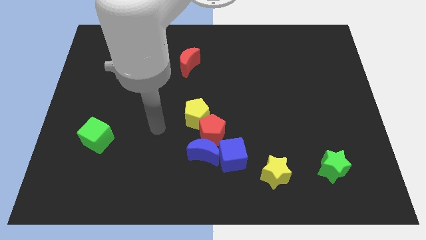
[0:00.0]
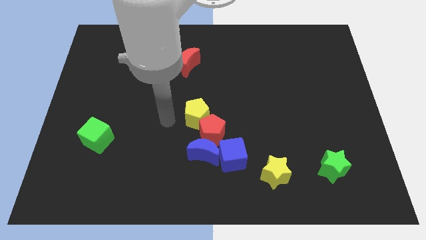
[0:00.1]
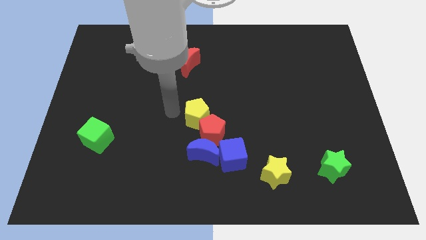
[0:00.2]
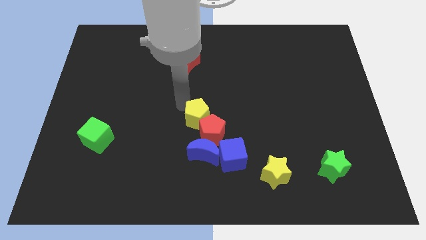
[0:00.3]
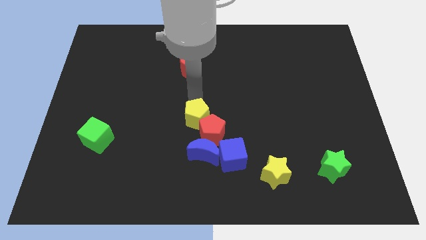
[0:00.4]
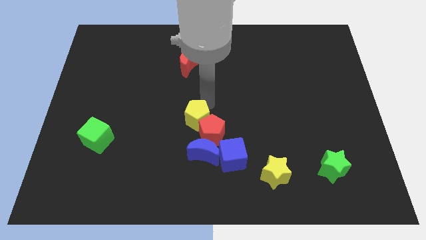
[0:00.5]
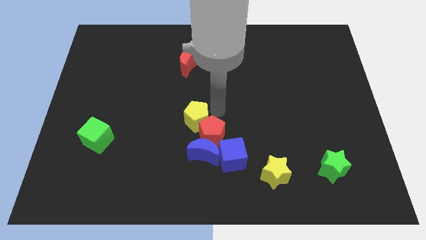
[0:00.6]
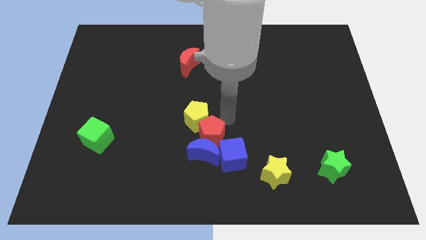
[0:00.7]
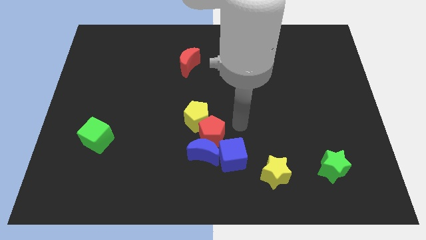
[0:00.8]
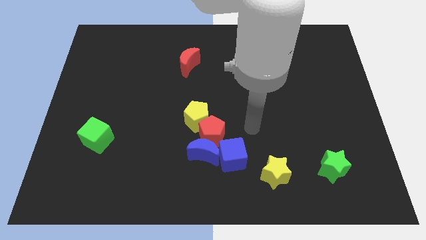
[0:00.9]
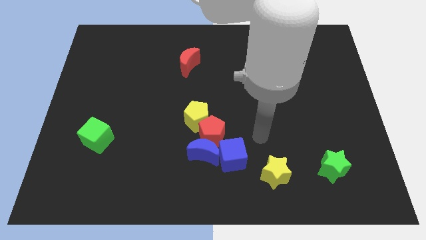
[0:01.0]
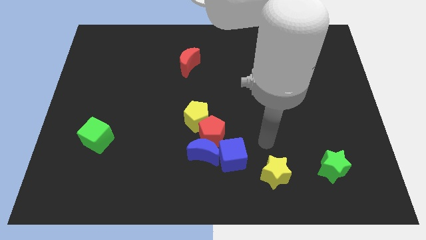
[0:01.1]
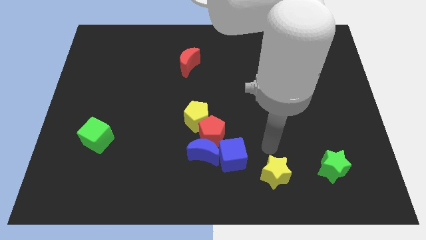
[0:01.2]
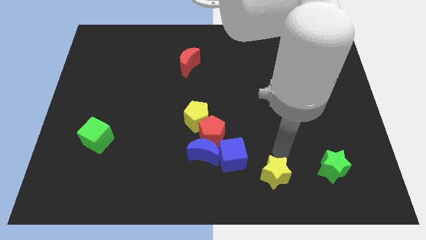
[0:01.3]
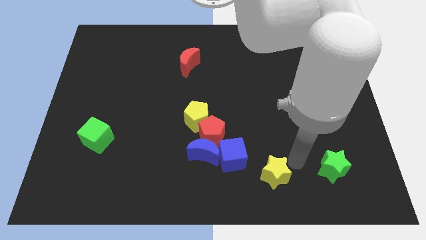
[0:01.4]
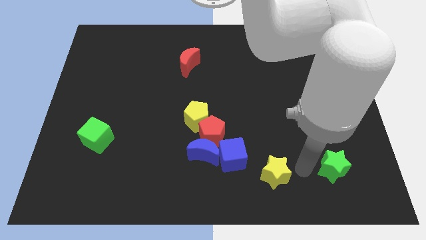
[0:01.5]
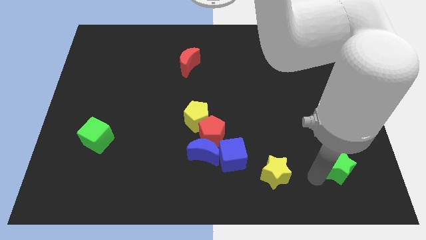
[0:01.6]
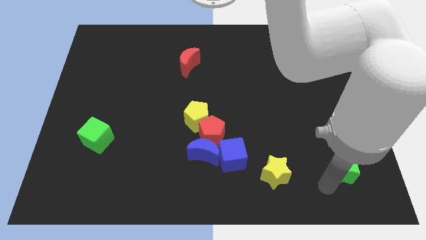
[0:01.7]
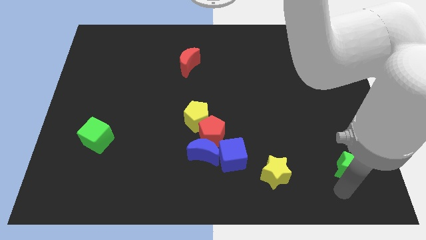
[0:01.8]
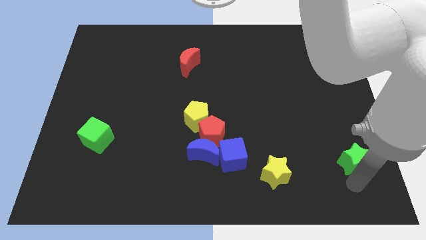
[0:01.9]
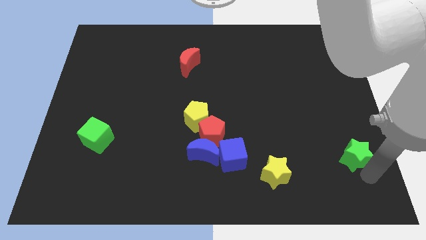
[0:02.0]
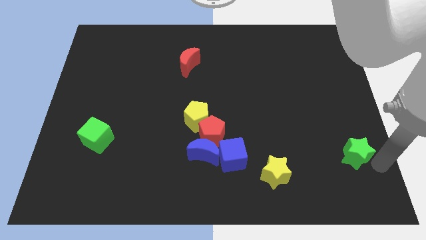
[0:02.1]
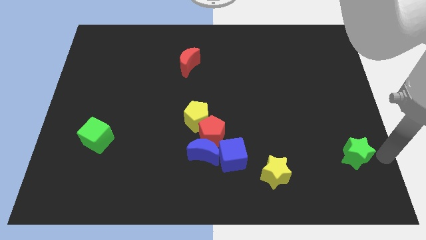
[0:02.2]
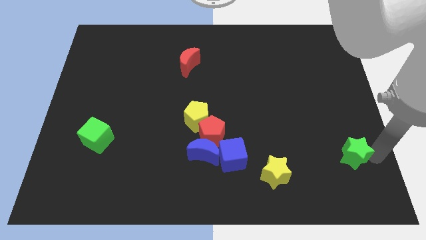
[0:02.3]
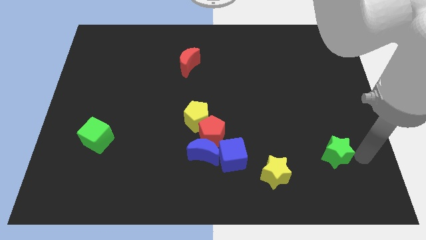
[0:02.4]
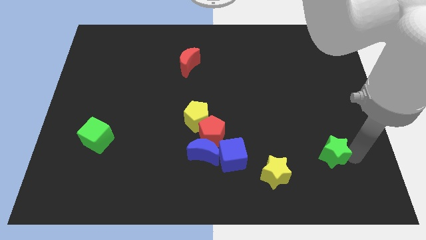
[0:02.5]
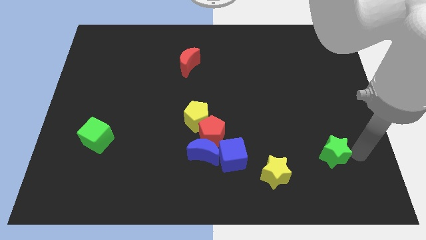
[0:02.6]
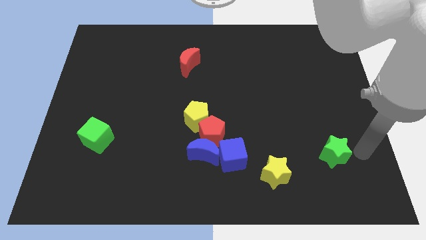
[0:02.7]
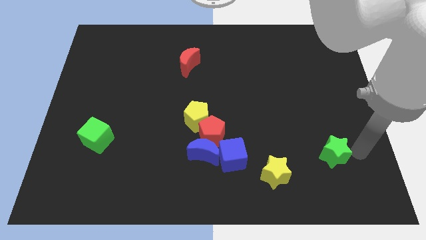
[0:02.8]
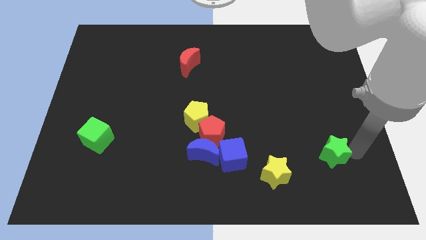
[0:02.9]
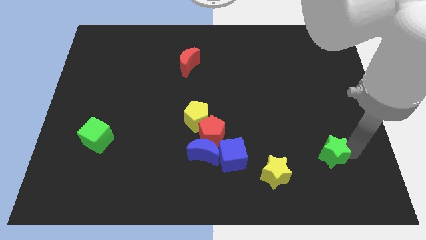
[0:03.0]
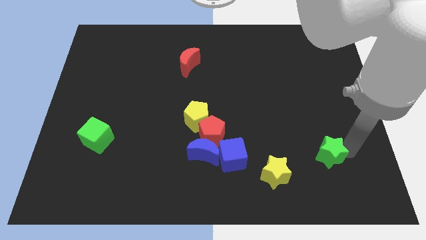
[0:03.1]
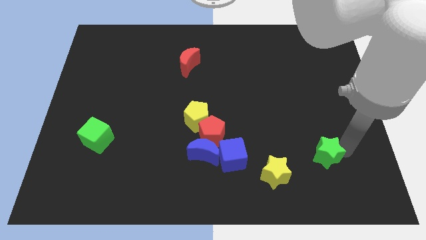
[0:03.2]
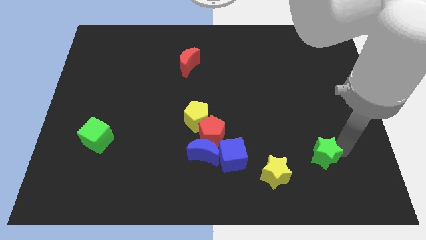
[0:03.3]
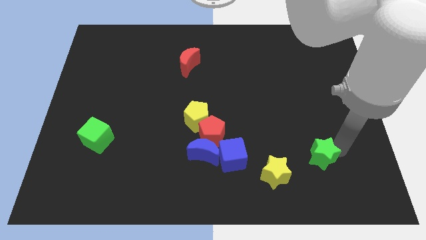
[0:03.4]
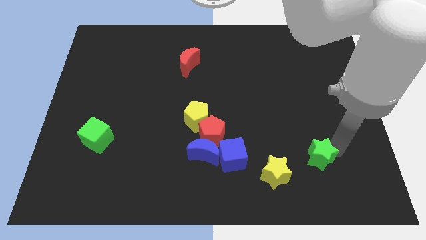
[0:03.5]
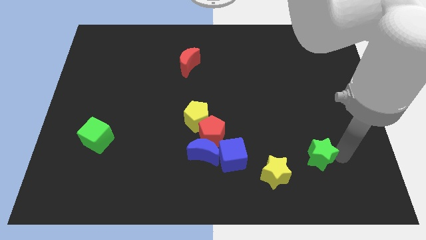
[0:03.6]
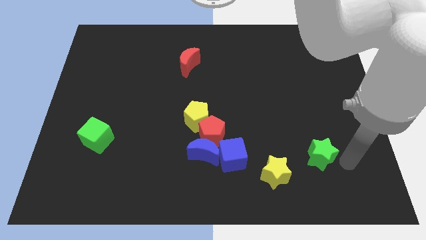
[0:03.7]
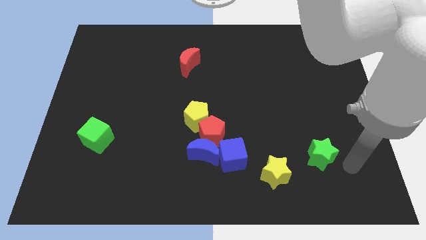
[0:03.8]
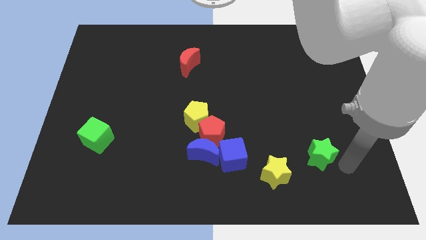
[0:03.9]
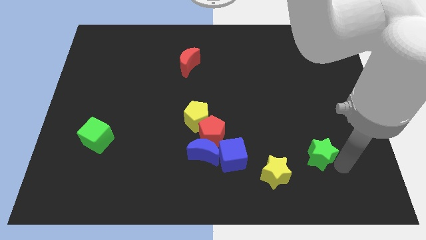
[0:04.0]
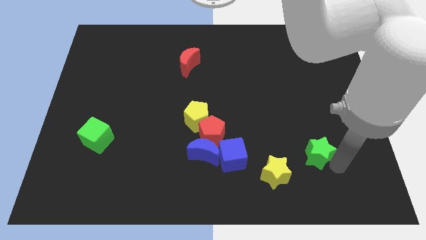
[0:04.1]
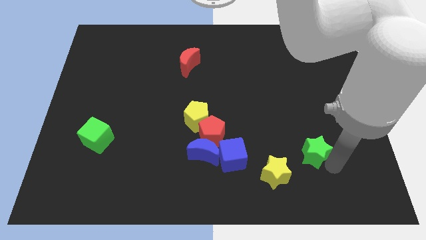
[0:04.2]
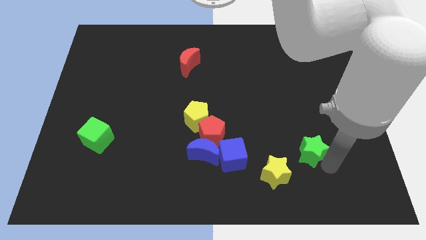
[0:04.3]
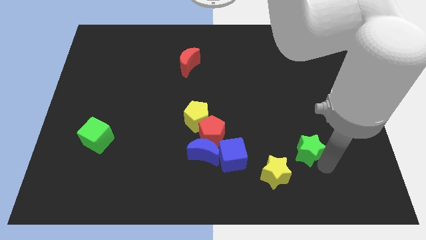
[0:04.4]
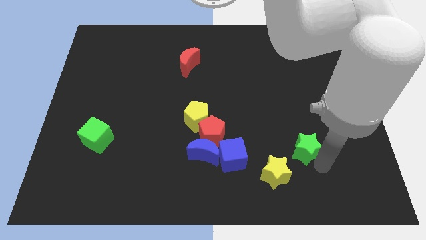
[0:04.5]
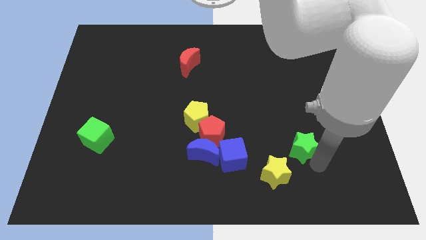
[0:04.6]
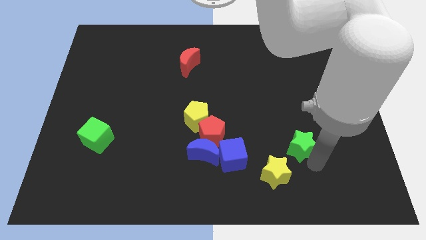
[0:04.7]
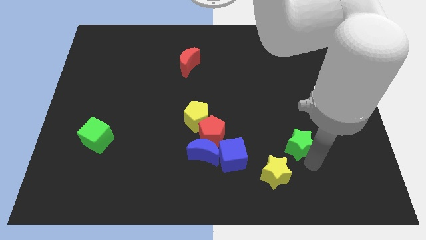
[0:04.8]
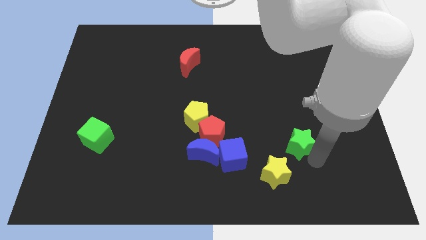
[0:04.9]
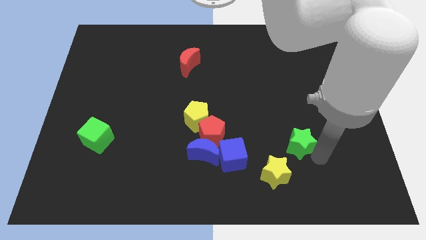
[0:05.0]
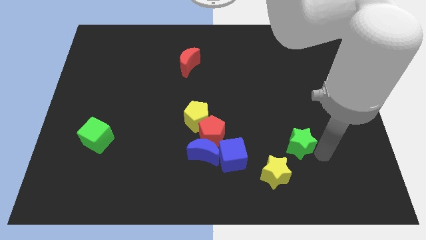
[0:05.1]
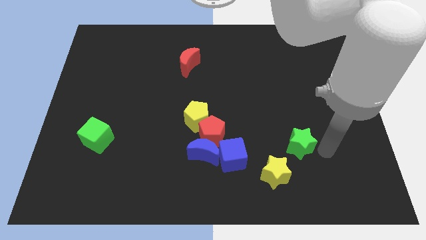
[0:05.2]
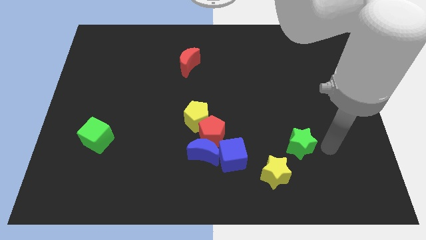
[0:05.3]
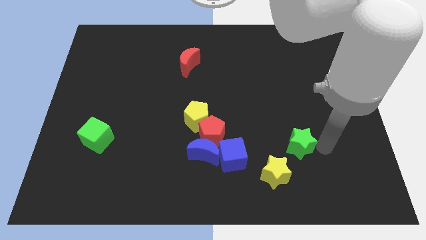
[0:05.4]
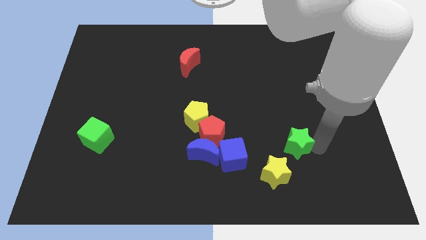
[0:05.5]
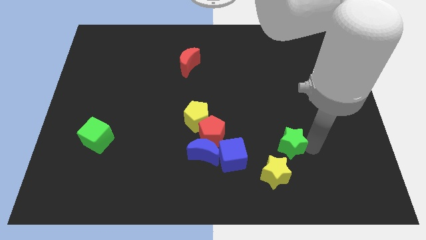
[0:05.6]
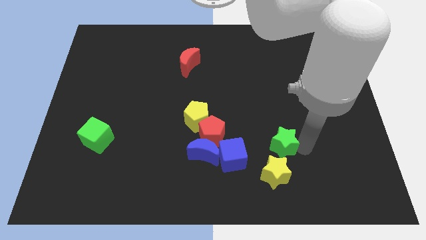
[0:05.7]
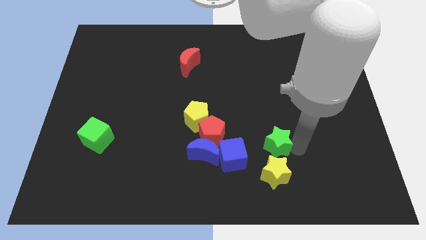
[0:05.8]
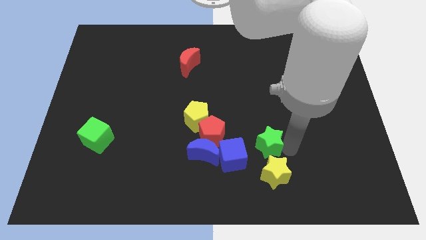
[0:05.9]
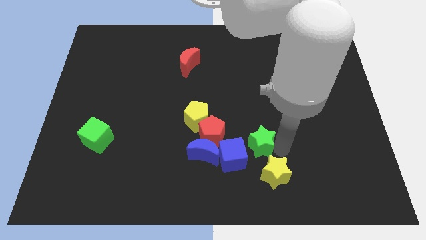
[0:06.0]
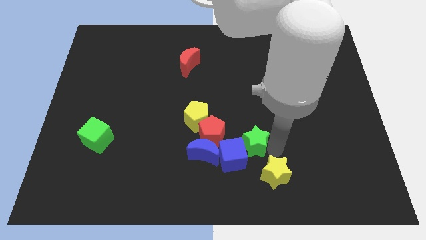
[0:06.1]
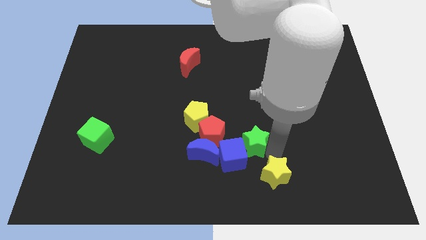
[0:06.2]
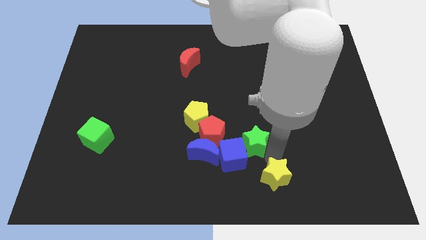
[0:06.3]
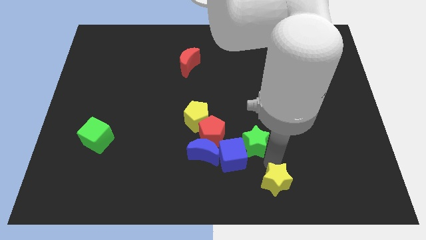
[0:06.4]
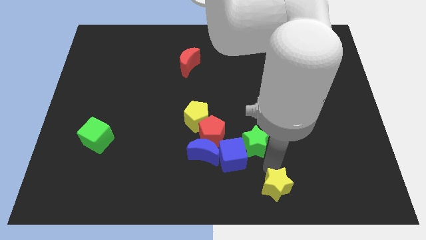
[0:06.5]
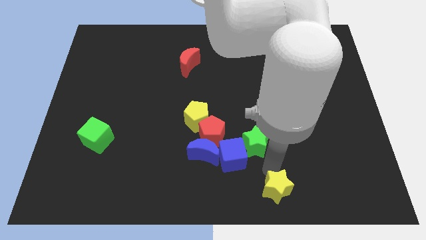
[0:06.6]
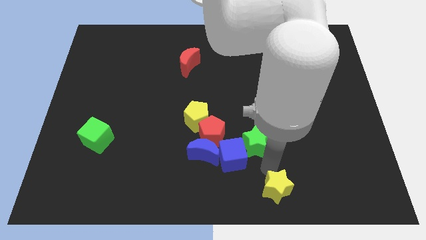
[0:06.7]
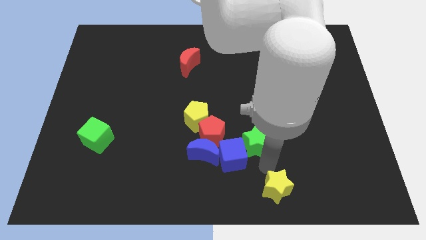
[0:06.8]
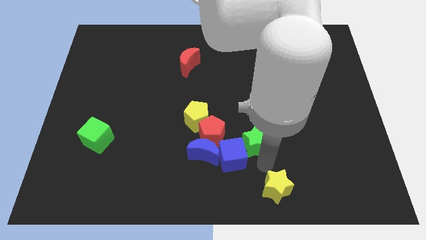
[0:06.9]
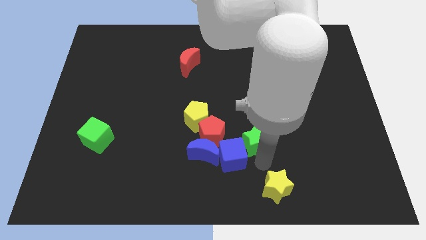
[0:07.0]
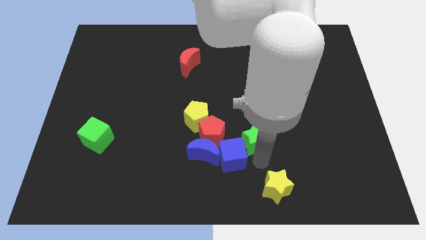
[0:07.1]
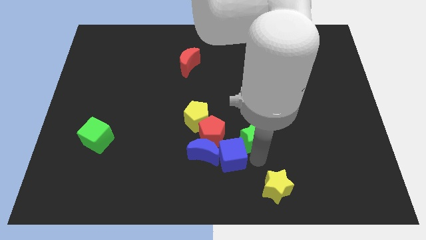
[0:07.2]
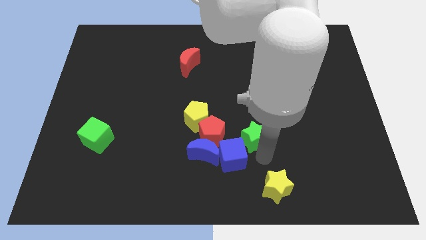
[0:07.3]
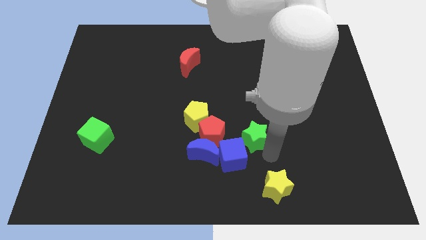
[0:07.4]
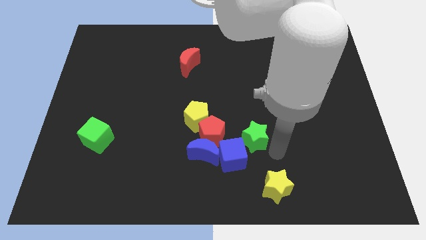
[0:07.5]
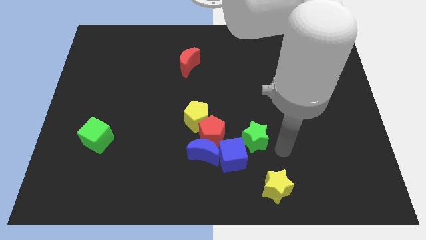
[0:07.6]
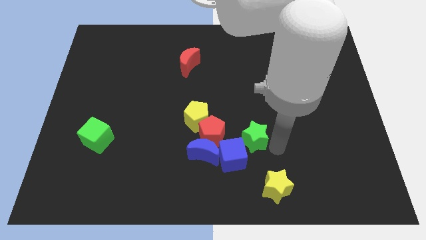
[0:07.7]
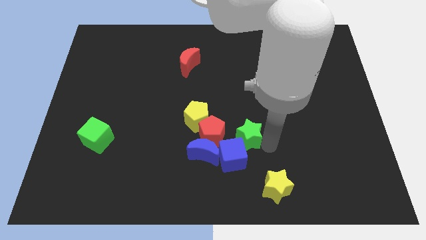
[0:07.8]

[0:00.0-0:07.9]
put the green star to the top right side of the blue moon
